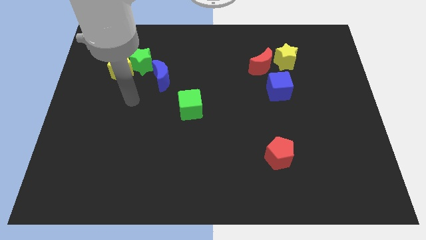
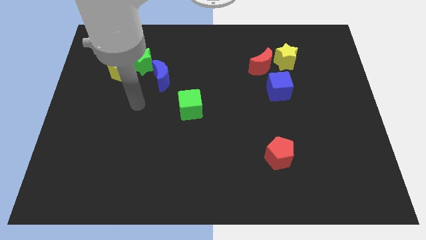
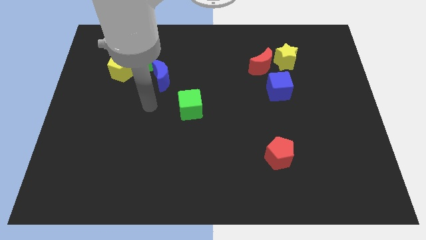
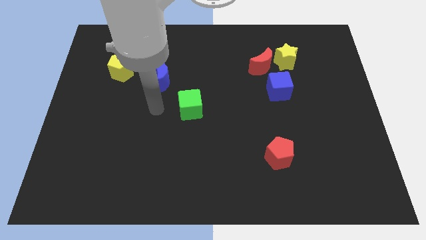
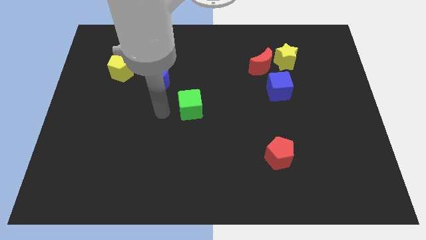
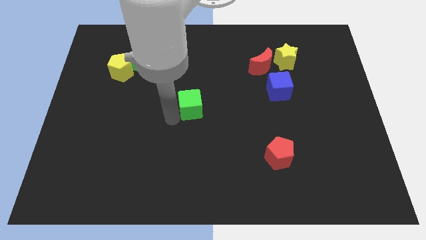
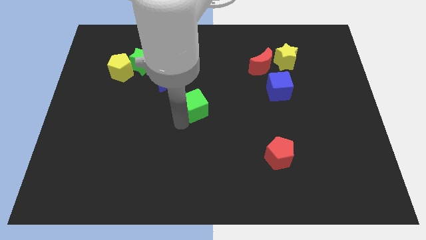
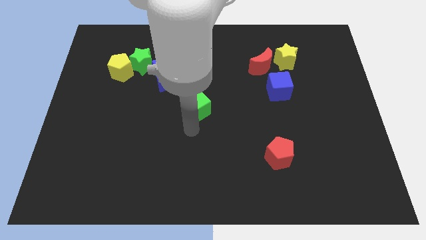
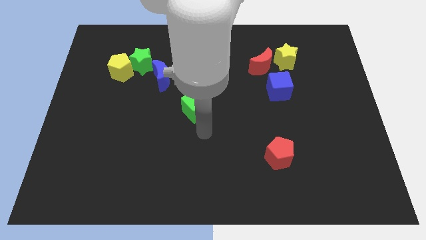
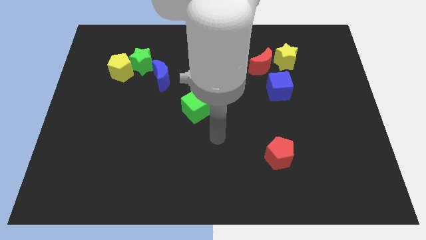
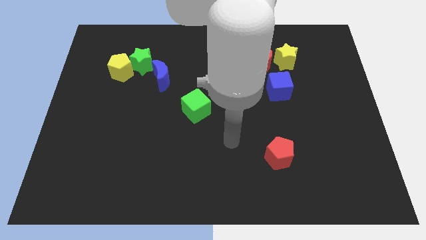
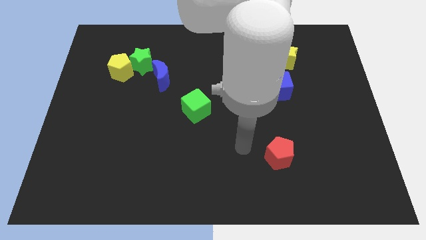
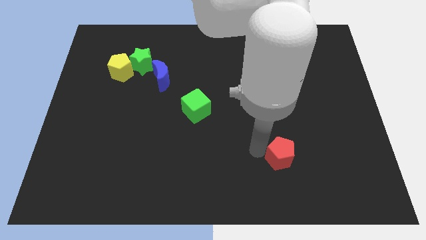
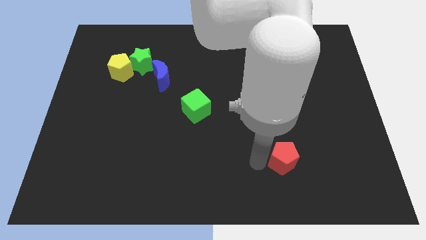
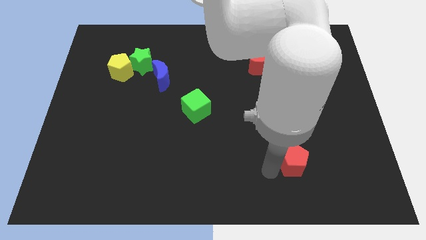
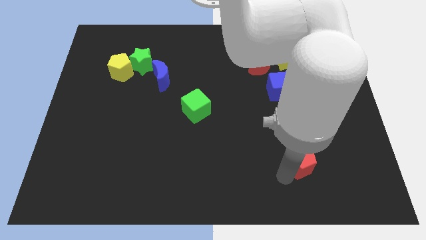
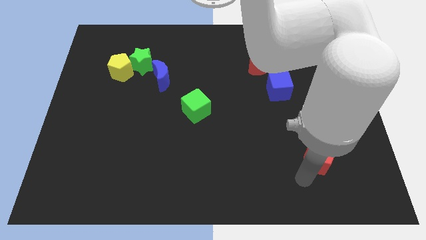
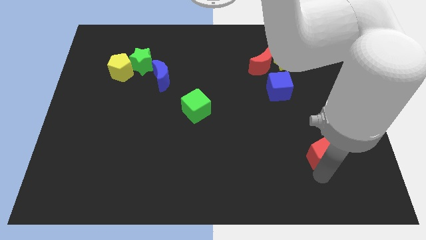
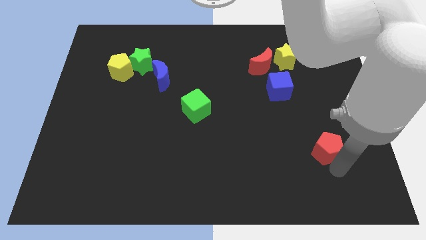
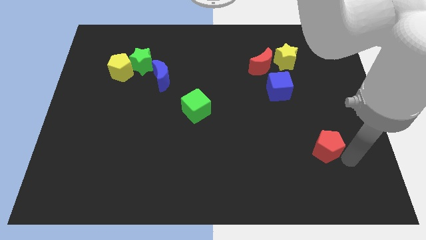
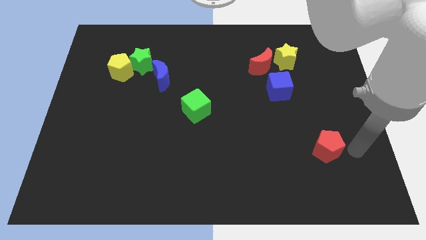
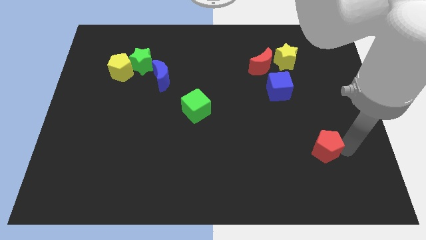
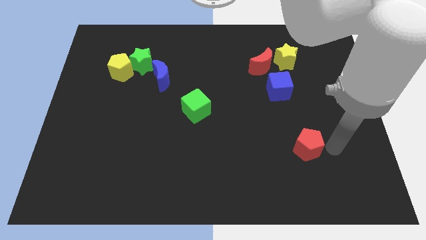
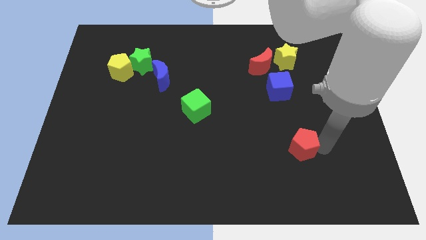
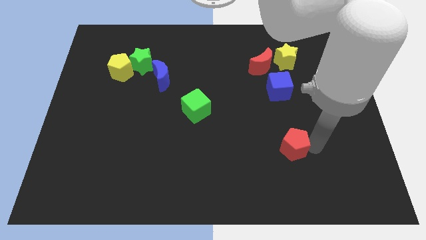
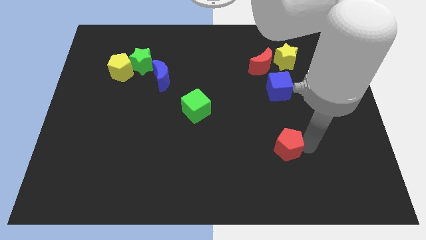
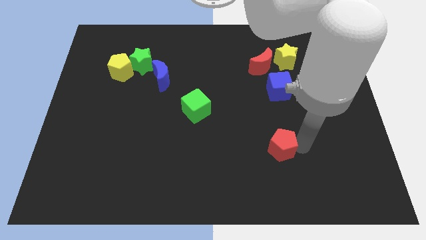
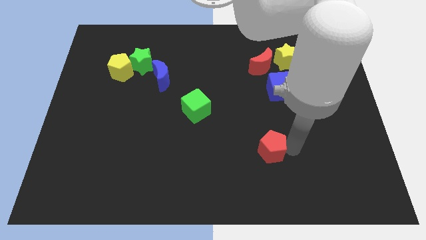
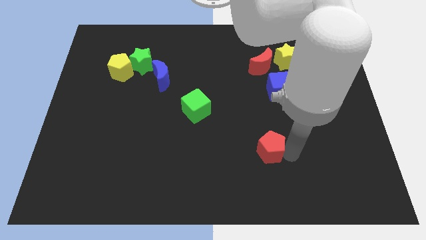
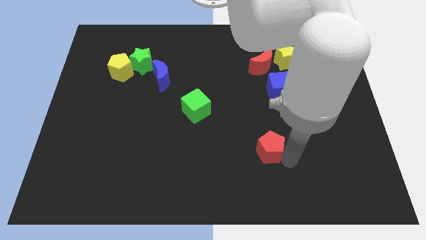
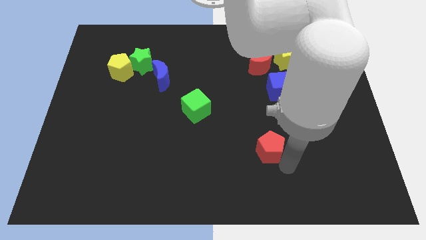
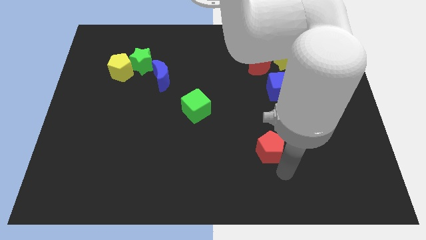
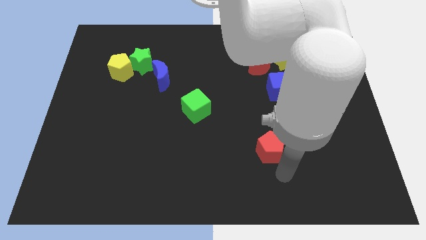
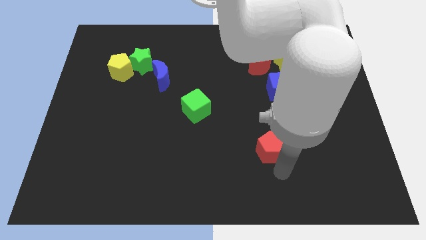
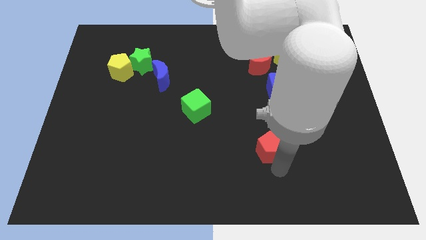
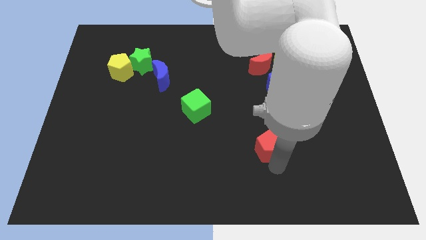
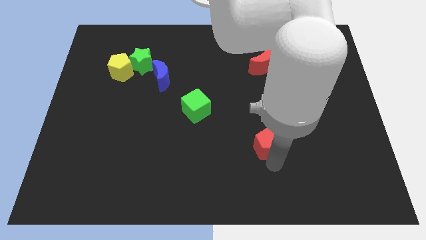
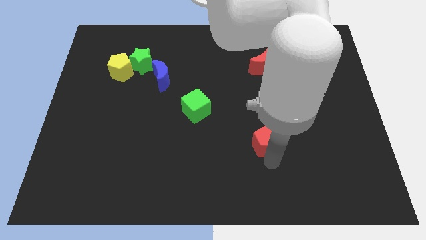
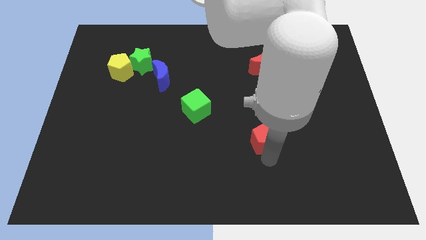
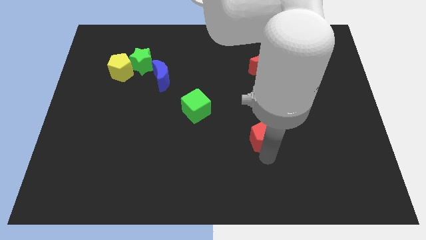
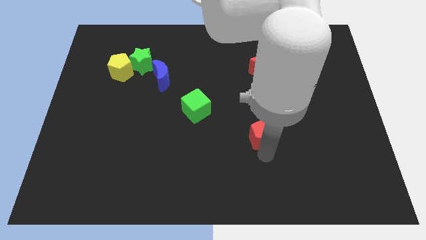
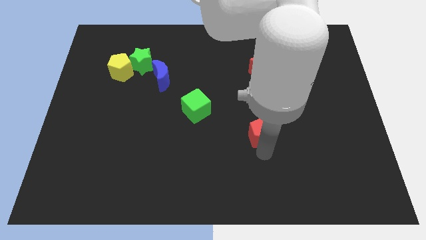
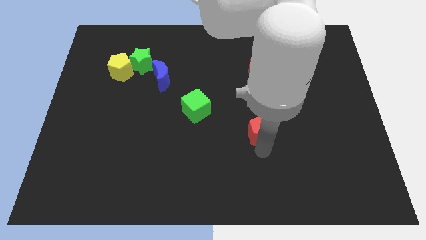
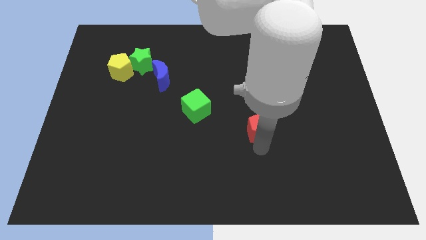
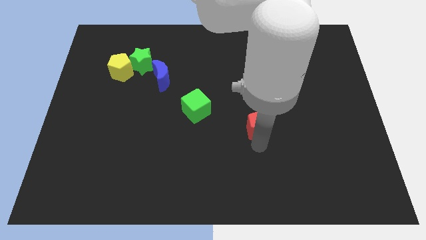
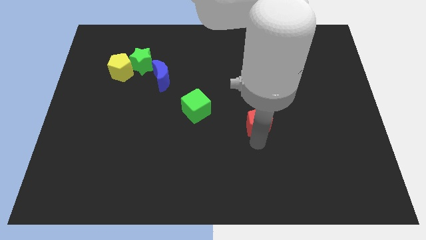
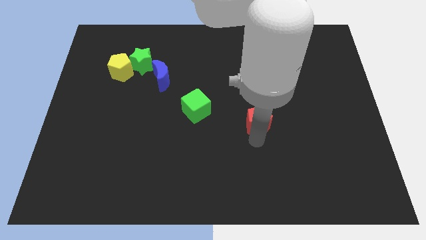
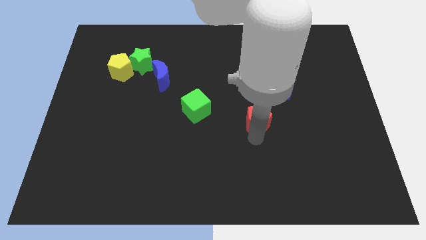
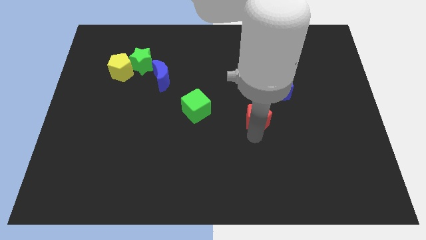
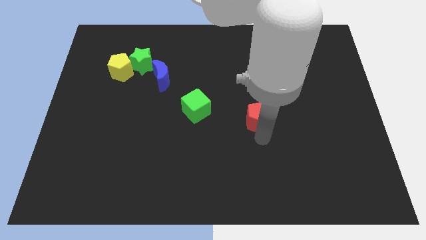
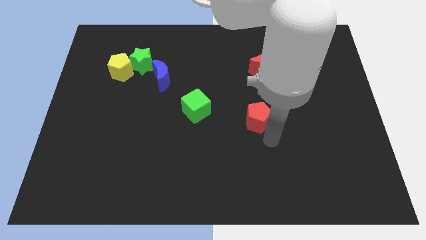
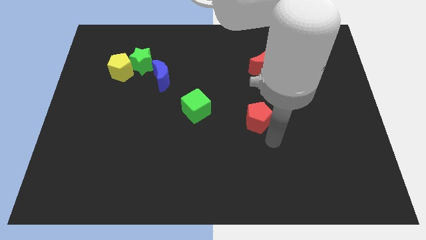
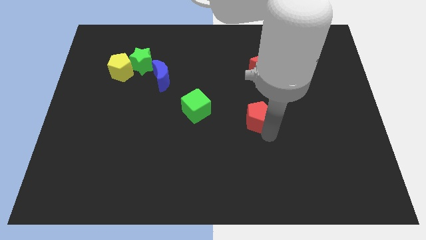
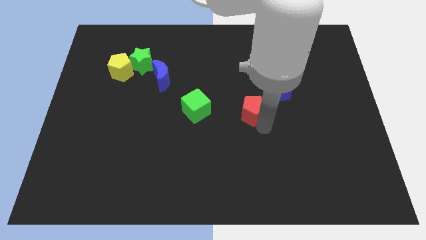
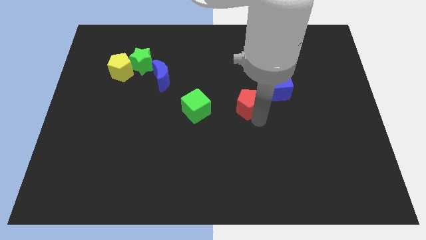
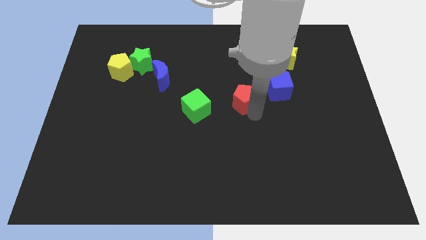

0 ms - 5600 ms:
slide the red pentagon left of the blue cube

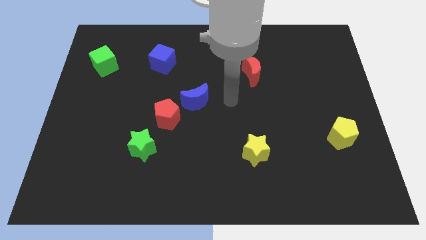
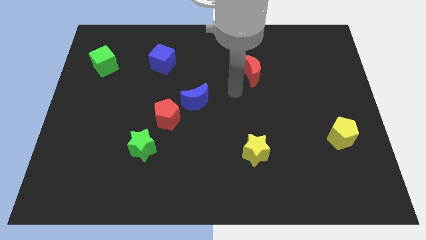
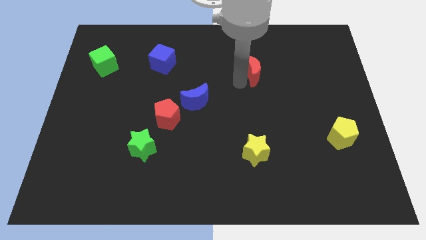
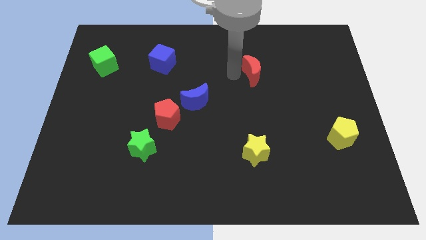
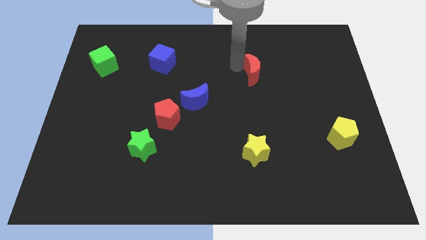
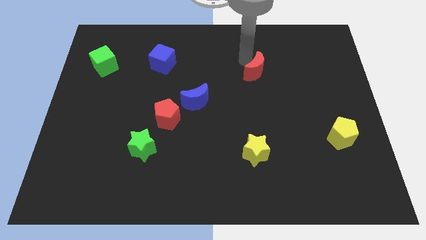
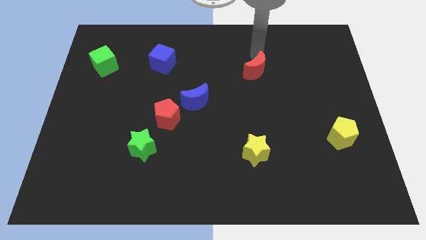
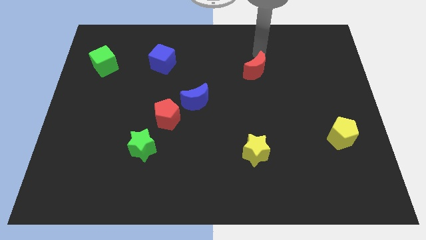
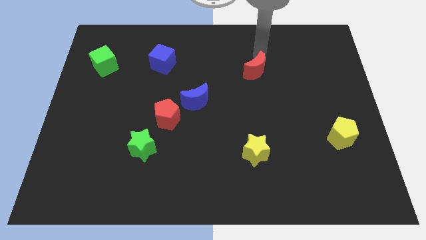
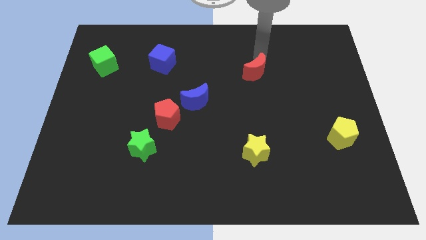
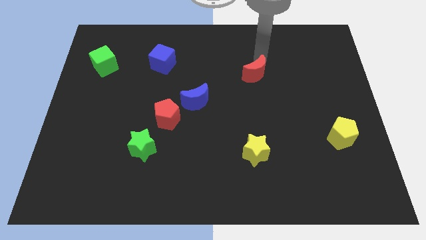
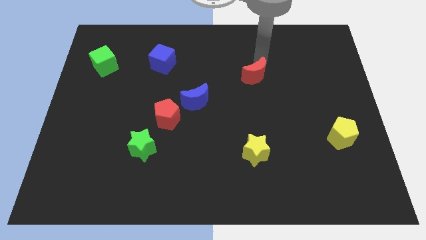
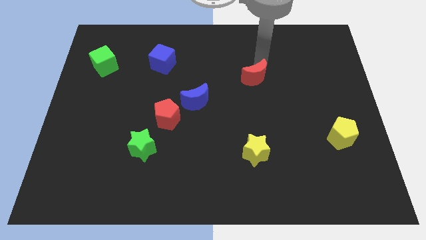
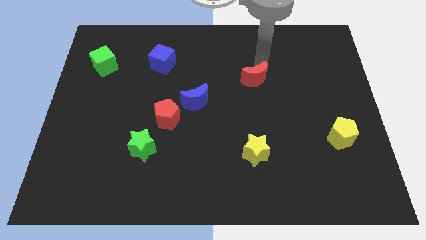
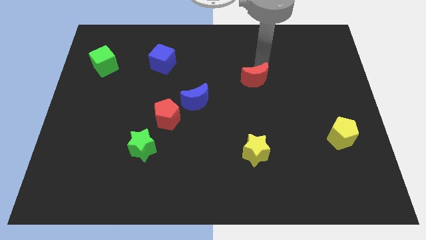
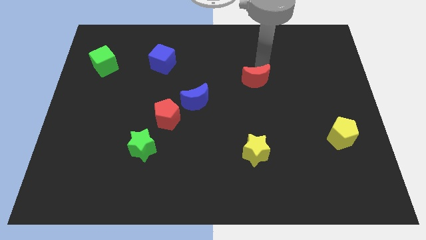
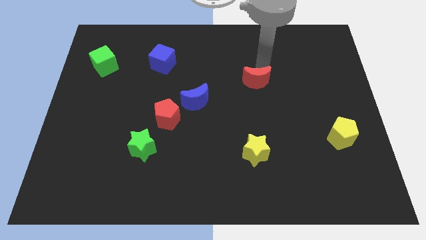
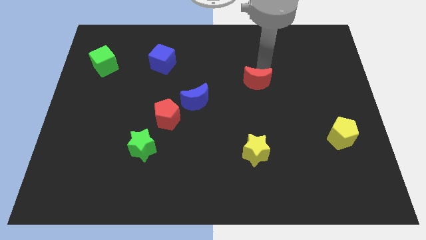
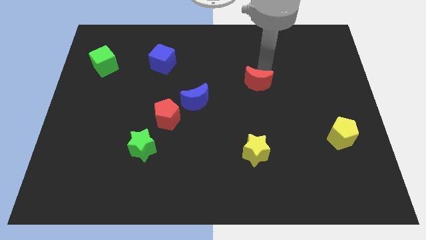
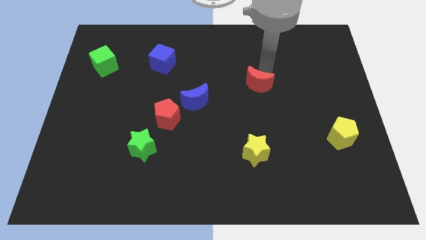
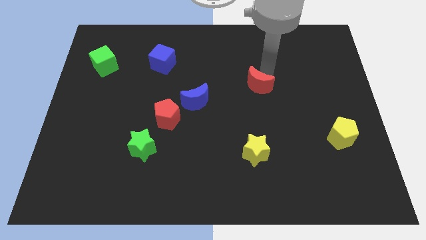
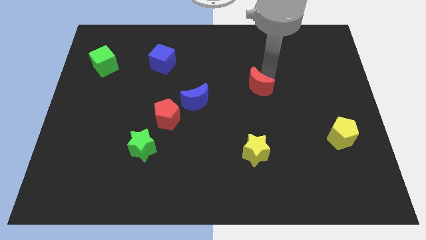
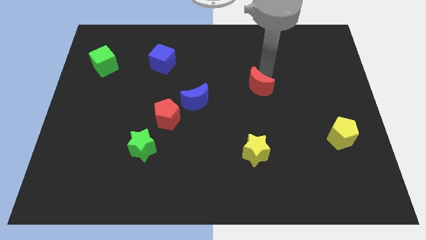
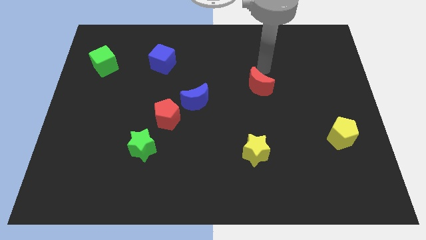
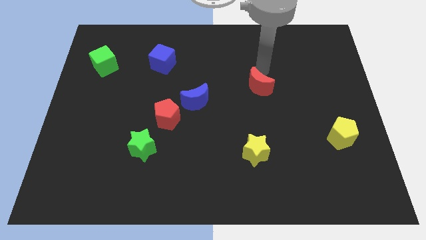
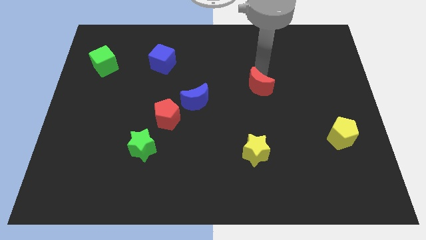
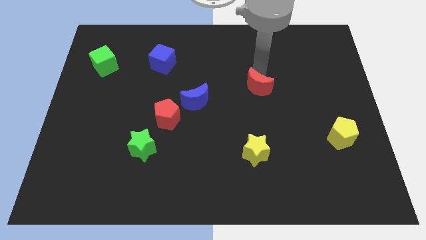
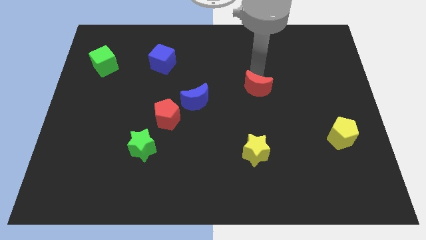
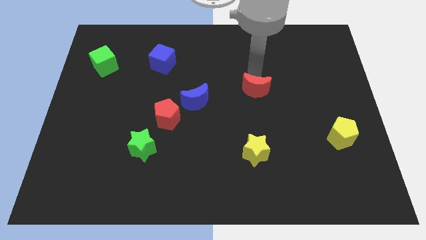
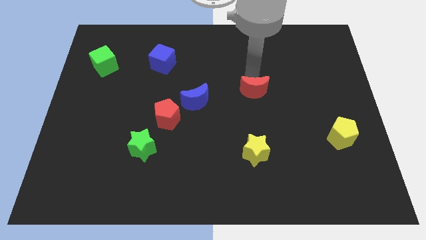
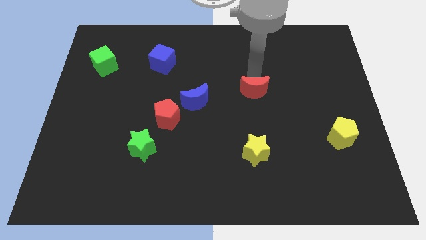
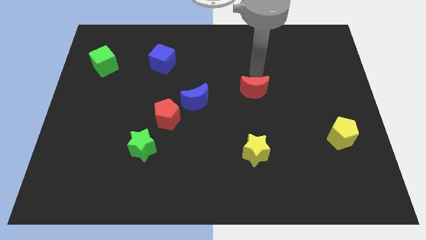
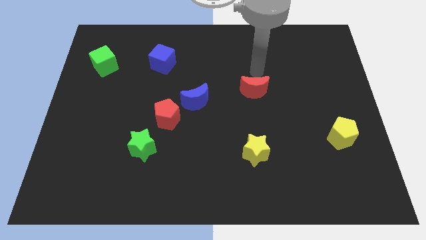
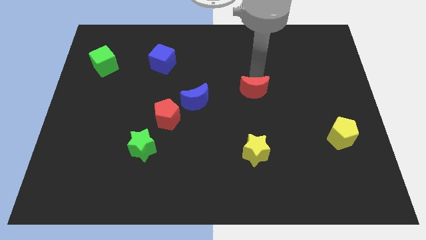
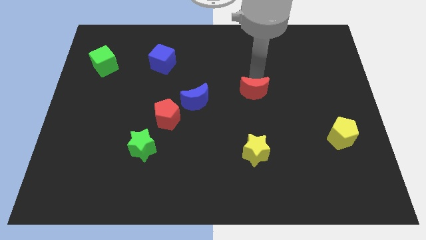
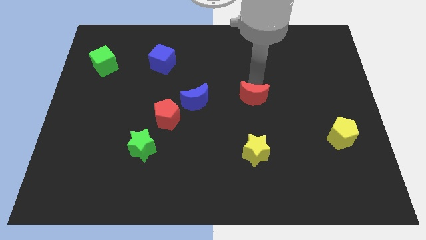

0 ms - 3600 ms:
slide the red moon above the yellow star
